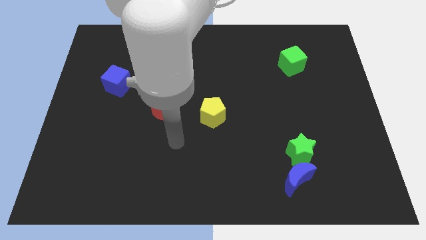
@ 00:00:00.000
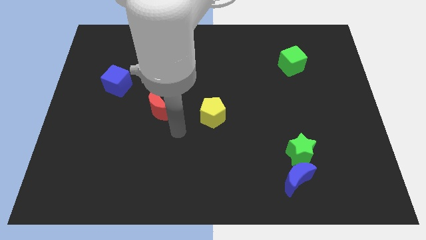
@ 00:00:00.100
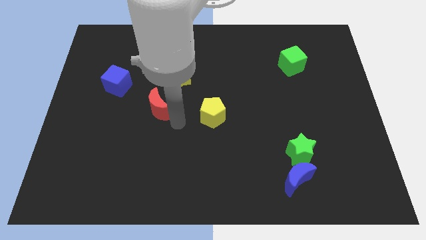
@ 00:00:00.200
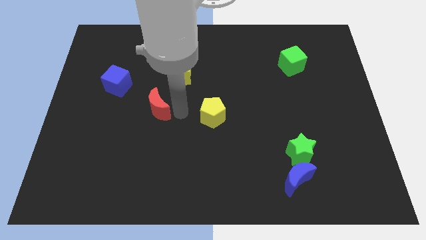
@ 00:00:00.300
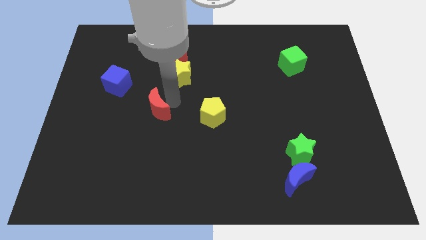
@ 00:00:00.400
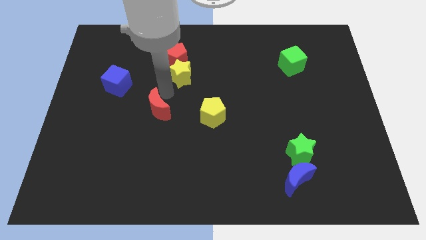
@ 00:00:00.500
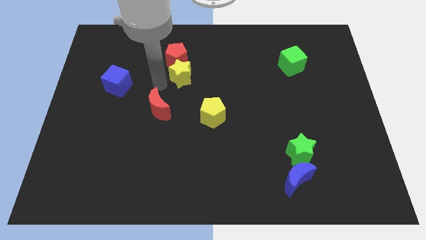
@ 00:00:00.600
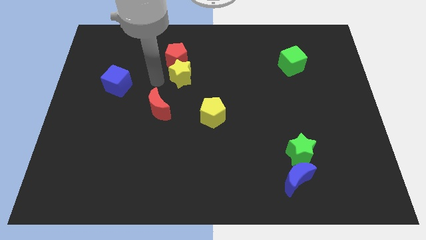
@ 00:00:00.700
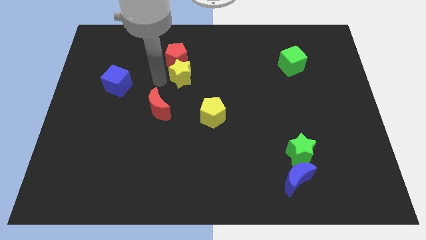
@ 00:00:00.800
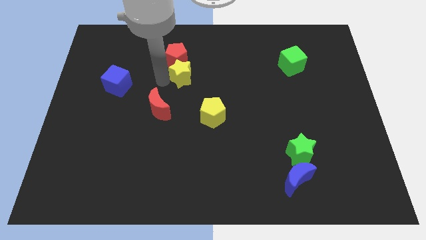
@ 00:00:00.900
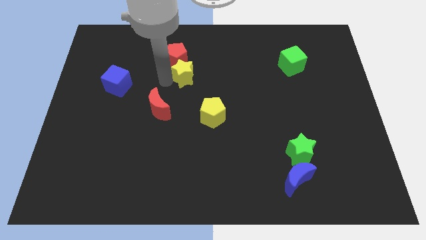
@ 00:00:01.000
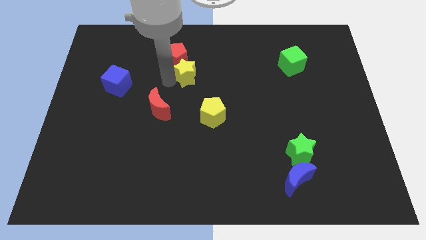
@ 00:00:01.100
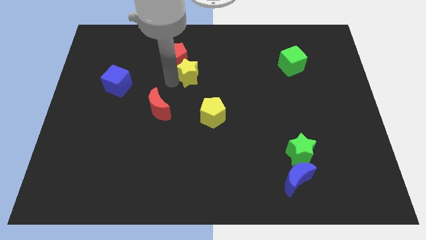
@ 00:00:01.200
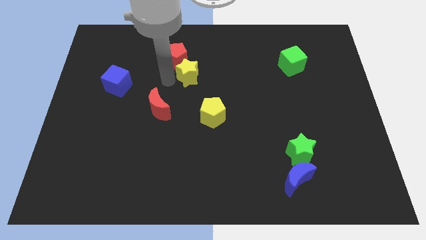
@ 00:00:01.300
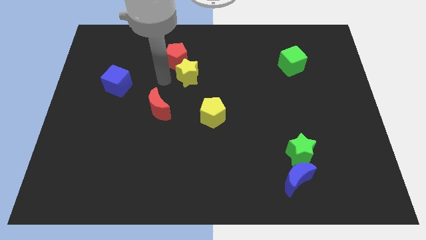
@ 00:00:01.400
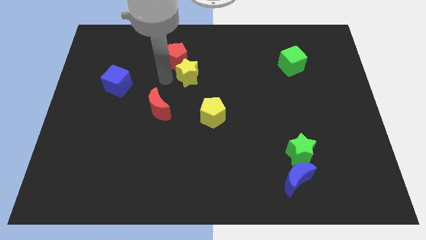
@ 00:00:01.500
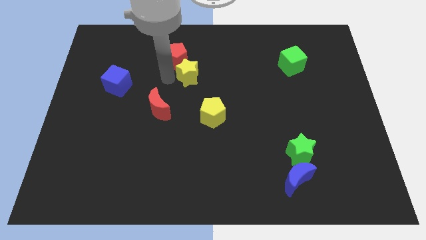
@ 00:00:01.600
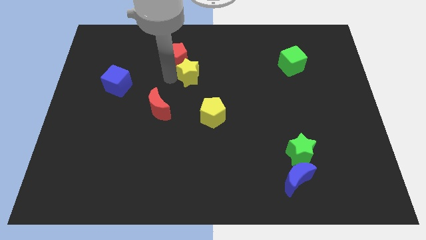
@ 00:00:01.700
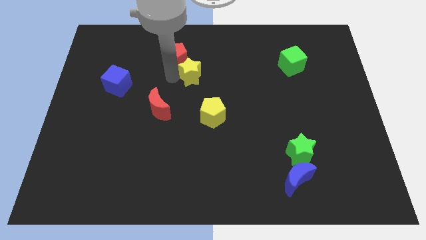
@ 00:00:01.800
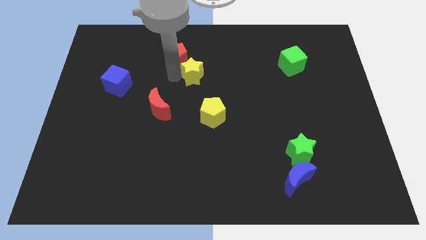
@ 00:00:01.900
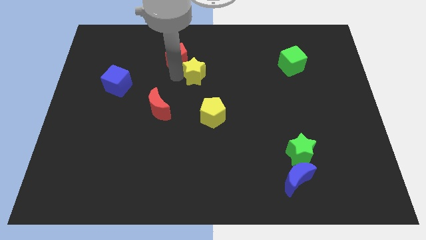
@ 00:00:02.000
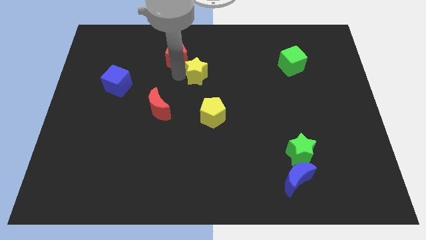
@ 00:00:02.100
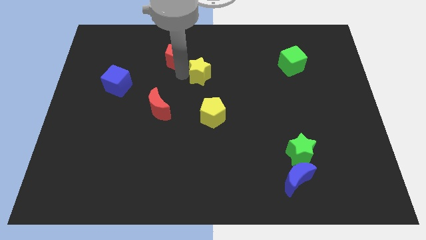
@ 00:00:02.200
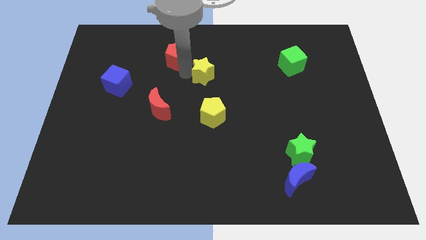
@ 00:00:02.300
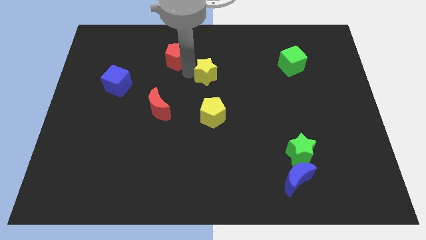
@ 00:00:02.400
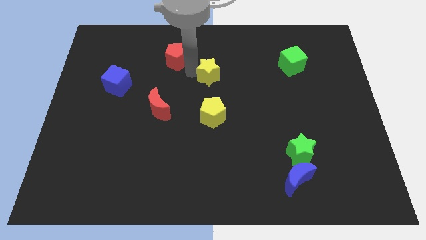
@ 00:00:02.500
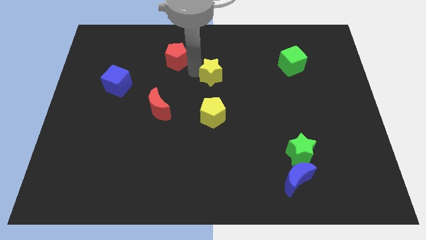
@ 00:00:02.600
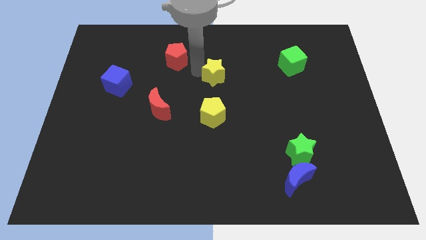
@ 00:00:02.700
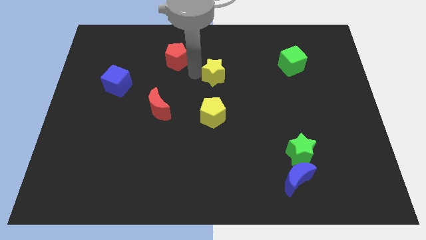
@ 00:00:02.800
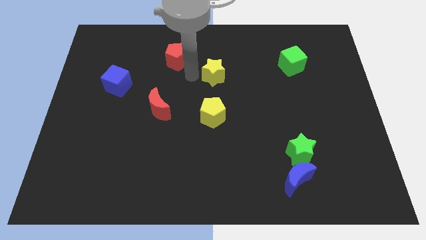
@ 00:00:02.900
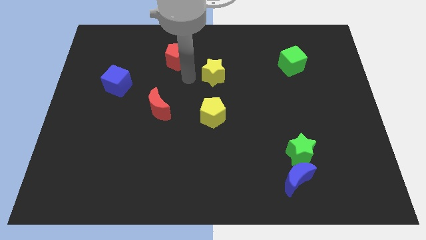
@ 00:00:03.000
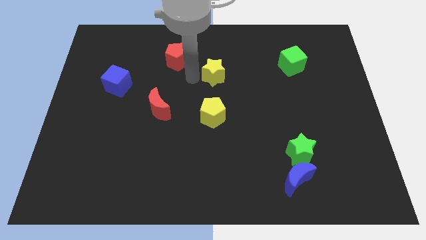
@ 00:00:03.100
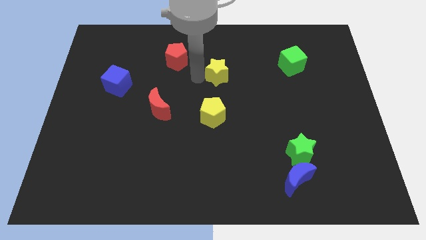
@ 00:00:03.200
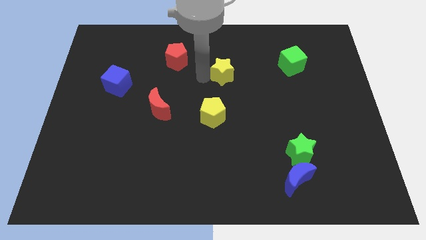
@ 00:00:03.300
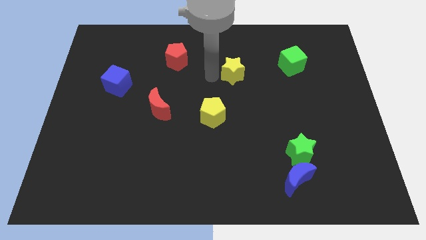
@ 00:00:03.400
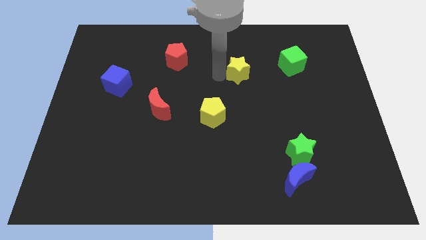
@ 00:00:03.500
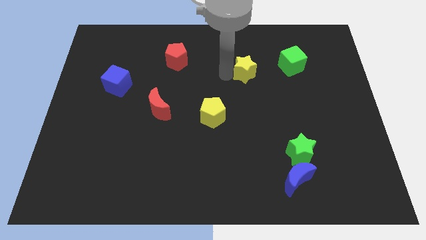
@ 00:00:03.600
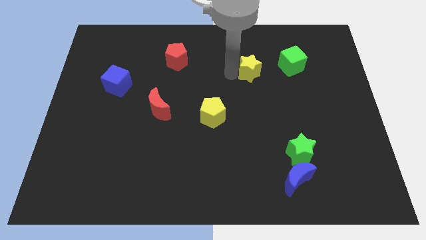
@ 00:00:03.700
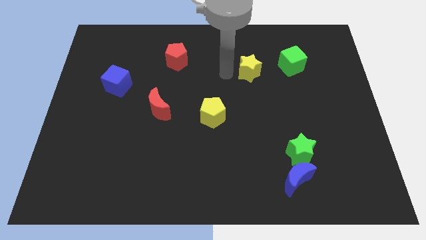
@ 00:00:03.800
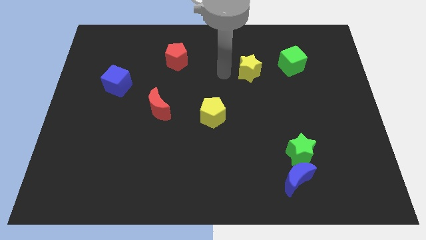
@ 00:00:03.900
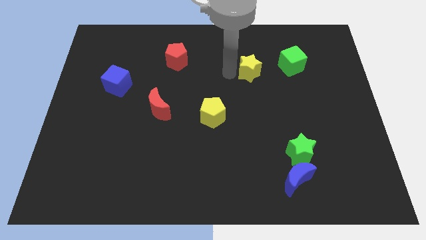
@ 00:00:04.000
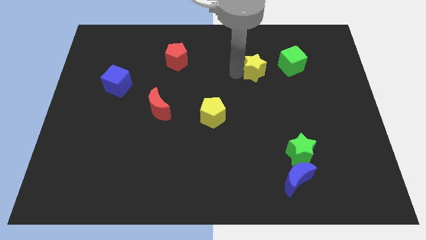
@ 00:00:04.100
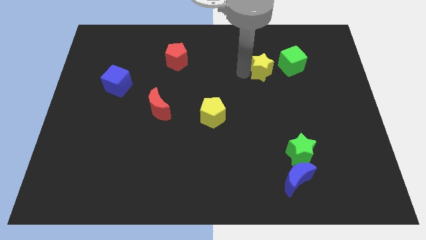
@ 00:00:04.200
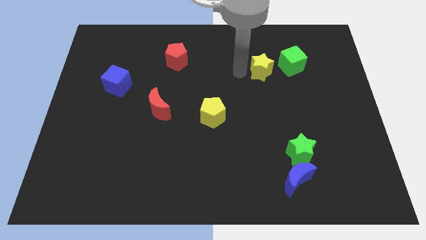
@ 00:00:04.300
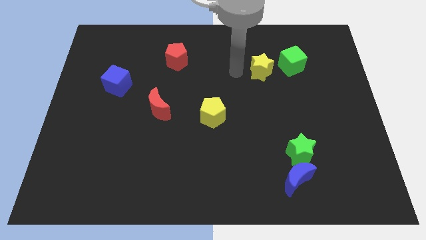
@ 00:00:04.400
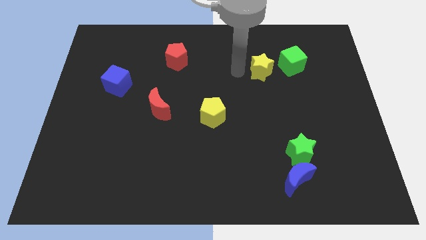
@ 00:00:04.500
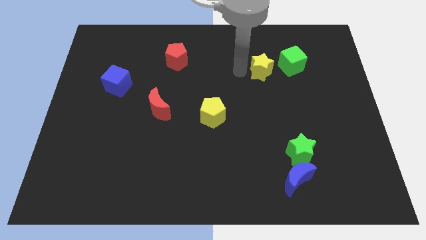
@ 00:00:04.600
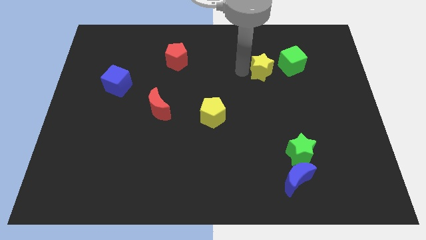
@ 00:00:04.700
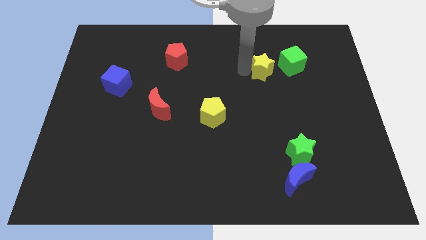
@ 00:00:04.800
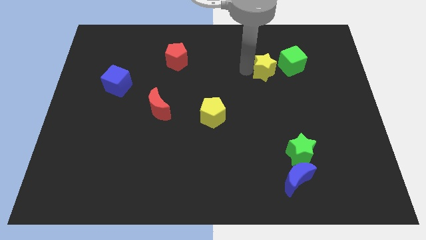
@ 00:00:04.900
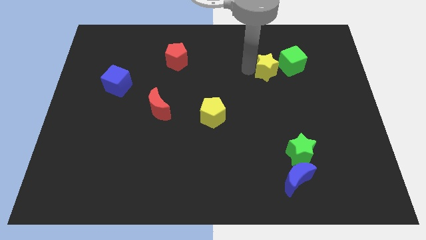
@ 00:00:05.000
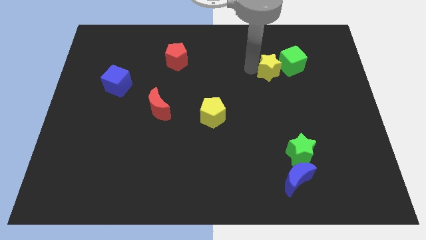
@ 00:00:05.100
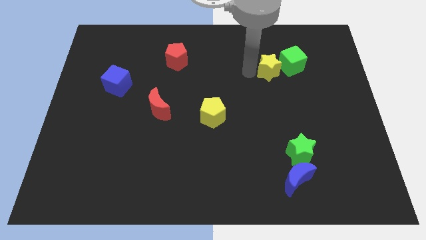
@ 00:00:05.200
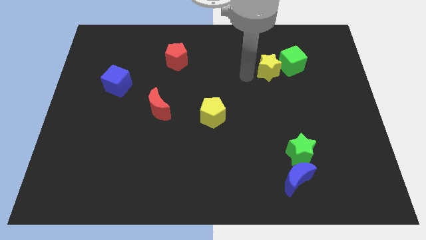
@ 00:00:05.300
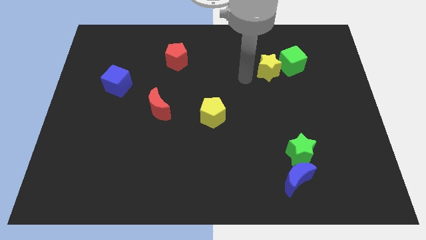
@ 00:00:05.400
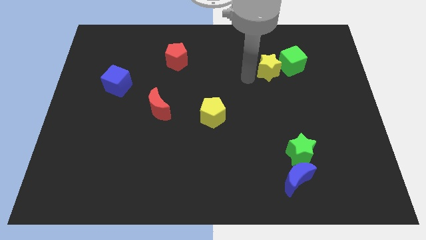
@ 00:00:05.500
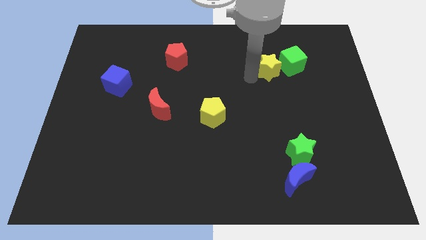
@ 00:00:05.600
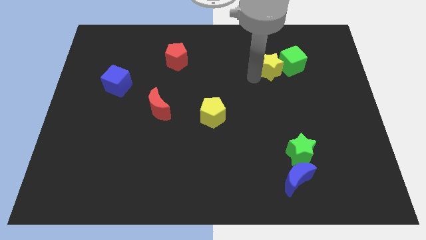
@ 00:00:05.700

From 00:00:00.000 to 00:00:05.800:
push the yellow star close to the green cube

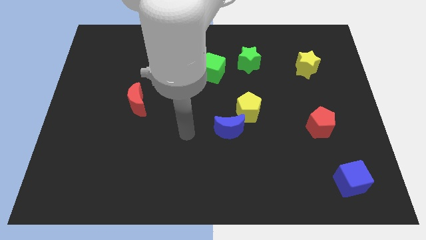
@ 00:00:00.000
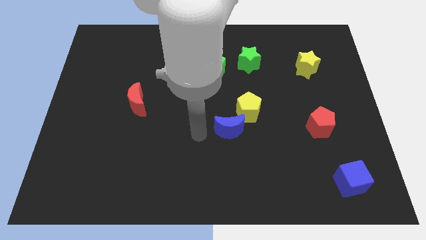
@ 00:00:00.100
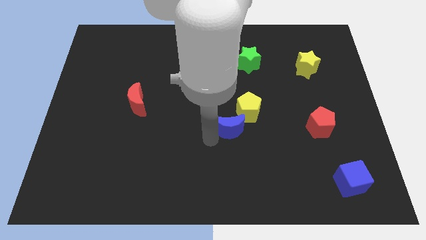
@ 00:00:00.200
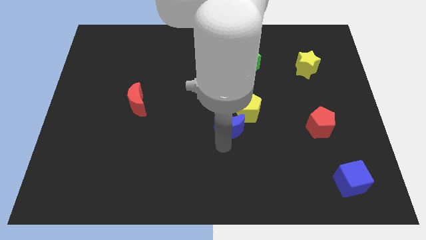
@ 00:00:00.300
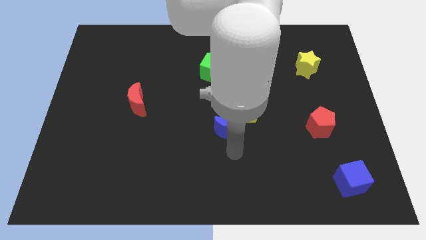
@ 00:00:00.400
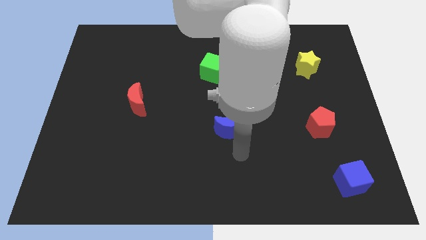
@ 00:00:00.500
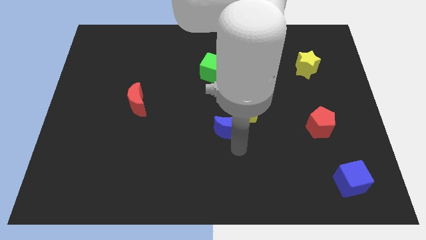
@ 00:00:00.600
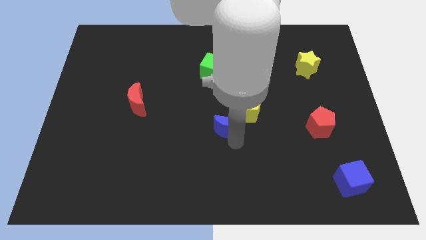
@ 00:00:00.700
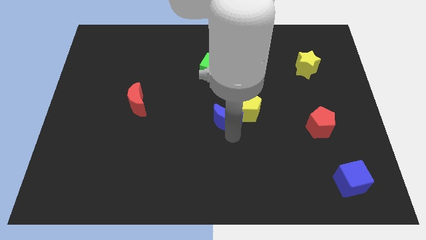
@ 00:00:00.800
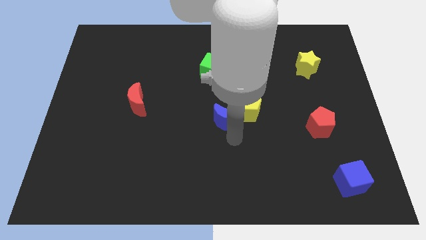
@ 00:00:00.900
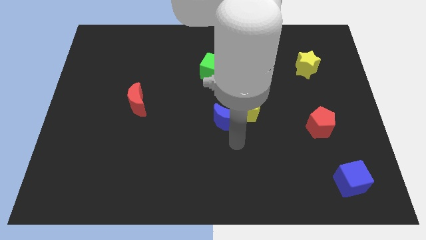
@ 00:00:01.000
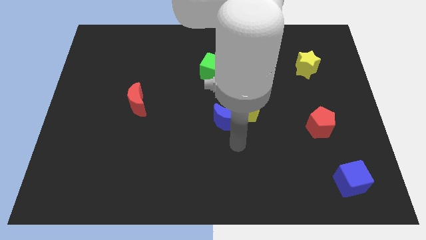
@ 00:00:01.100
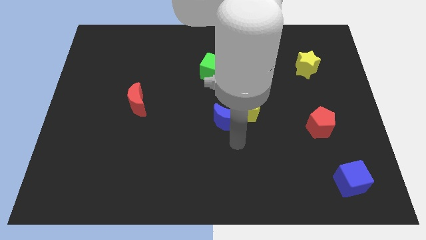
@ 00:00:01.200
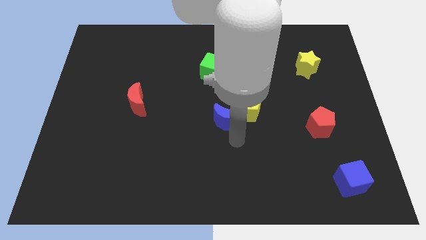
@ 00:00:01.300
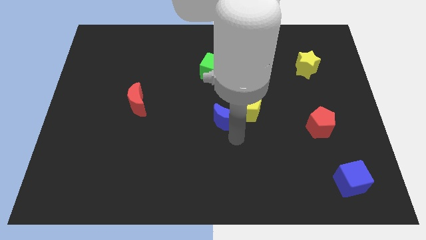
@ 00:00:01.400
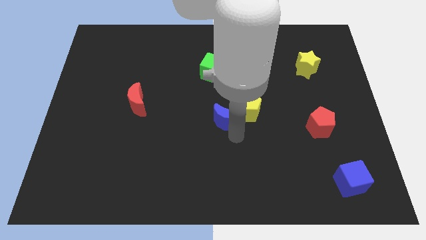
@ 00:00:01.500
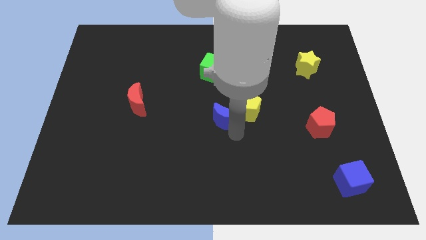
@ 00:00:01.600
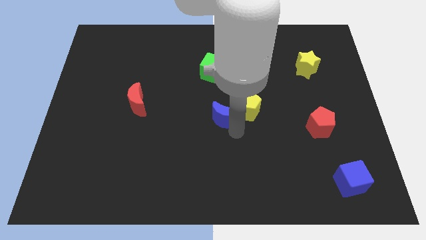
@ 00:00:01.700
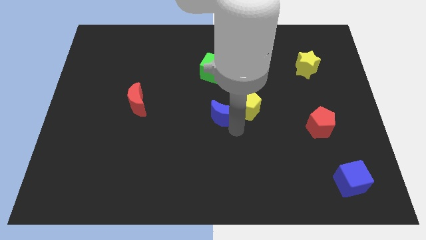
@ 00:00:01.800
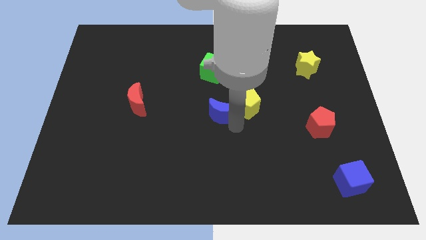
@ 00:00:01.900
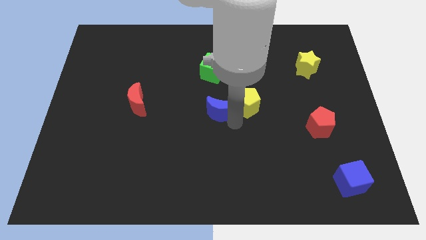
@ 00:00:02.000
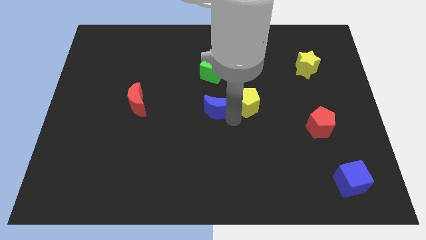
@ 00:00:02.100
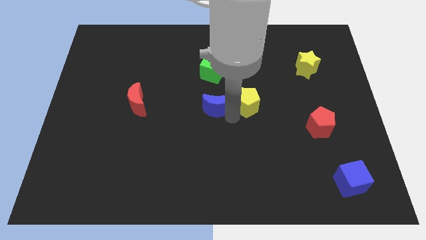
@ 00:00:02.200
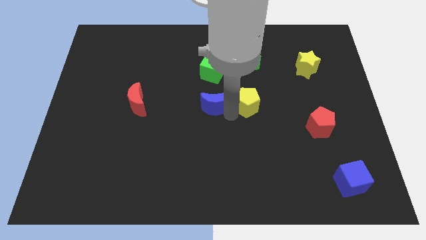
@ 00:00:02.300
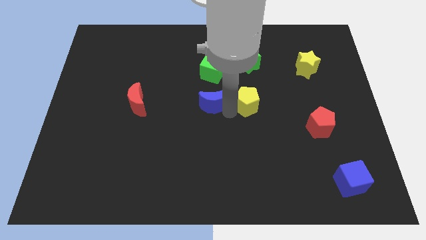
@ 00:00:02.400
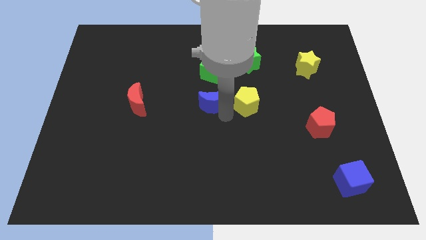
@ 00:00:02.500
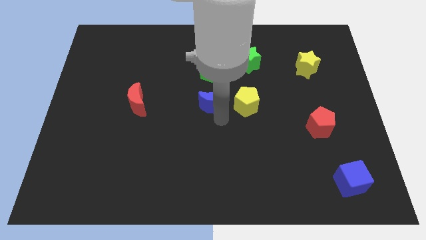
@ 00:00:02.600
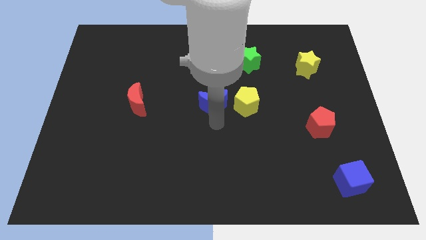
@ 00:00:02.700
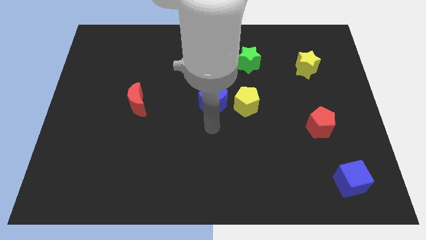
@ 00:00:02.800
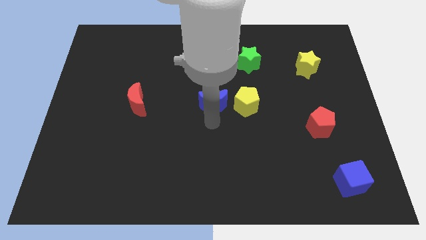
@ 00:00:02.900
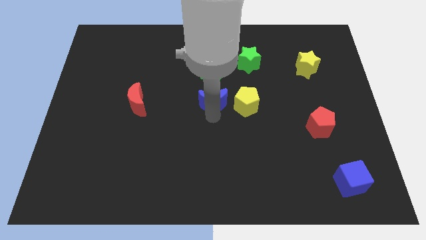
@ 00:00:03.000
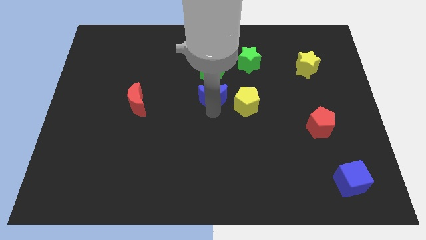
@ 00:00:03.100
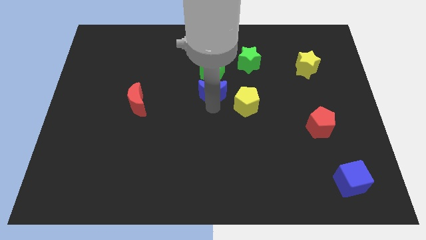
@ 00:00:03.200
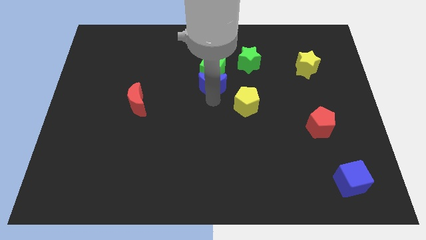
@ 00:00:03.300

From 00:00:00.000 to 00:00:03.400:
put the blue moon to the green cube
